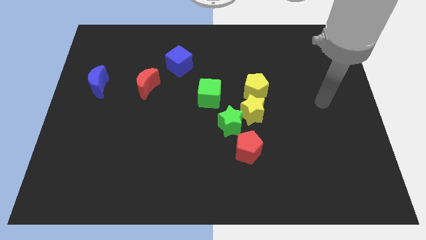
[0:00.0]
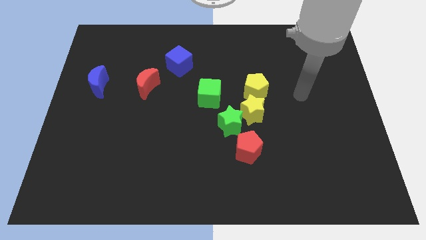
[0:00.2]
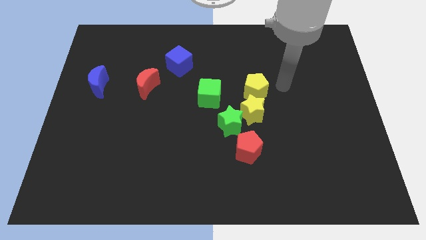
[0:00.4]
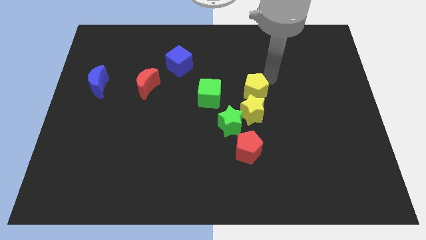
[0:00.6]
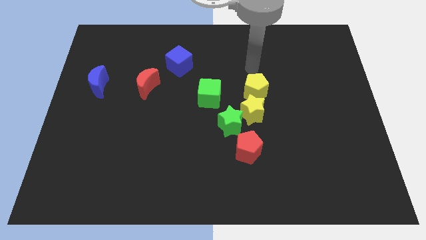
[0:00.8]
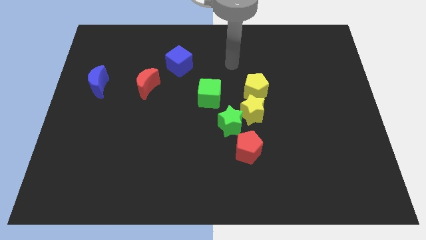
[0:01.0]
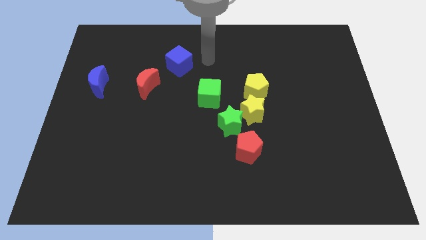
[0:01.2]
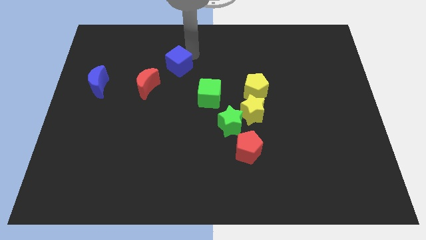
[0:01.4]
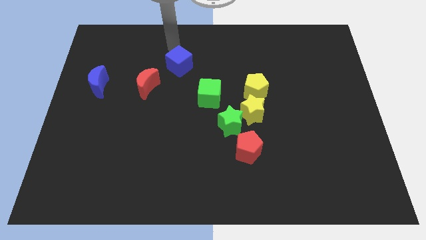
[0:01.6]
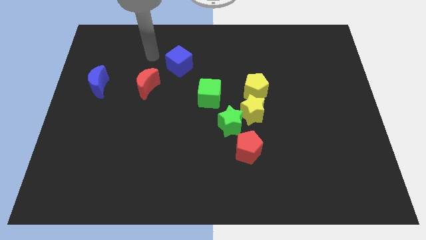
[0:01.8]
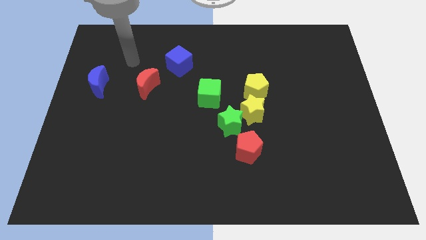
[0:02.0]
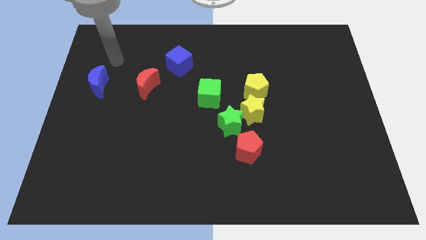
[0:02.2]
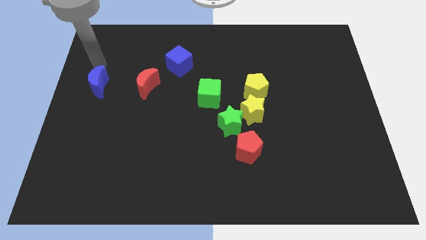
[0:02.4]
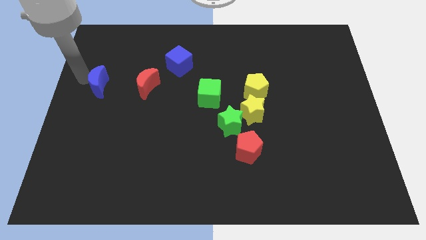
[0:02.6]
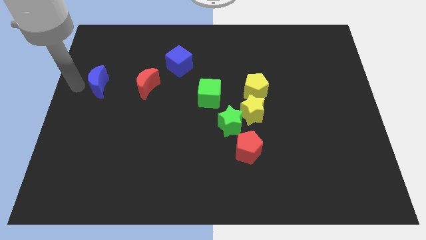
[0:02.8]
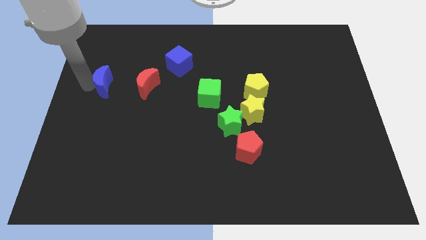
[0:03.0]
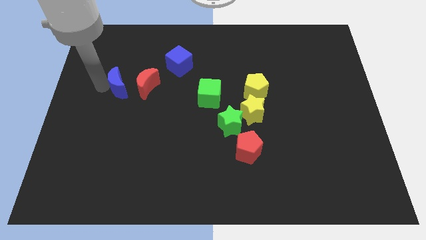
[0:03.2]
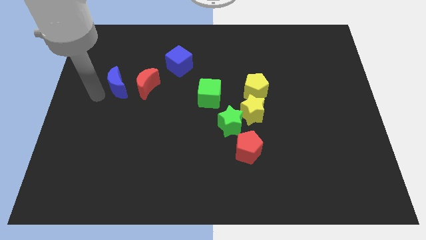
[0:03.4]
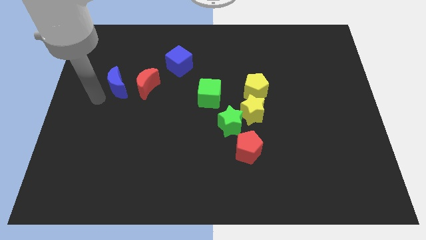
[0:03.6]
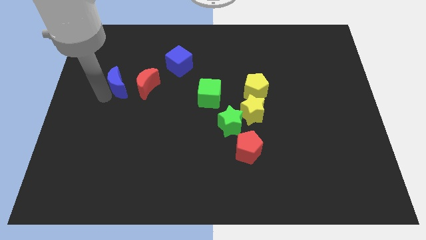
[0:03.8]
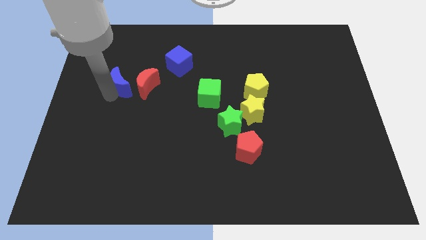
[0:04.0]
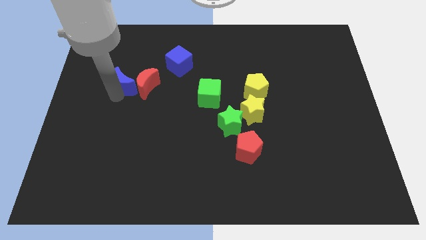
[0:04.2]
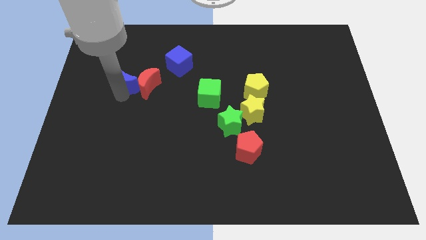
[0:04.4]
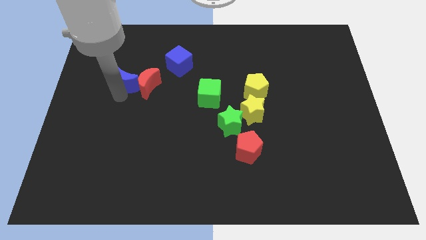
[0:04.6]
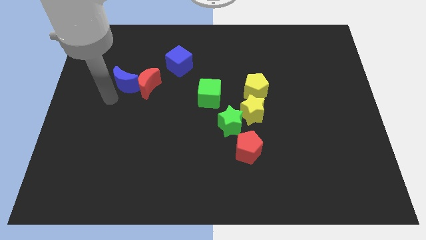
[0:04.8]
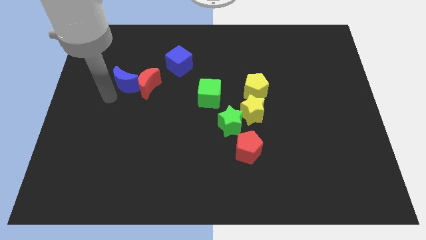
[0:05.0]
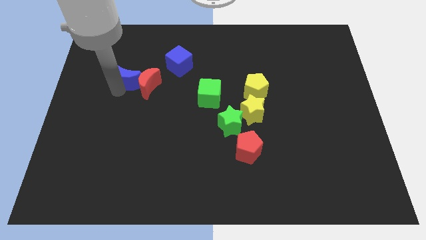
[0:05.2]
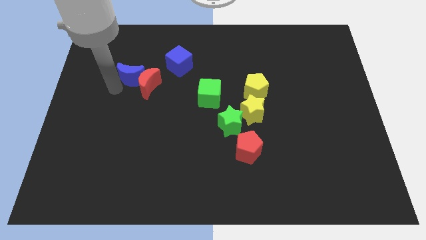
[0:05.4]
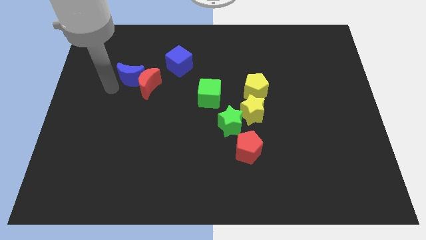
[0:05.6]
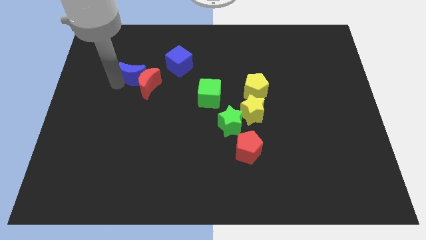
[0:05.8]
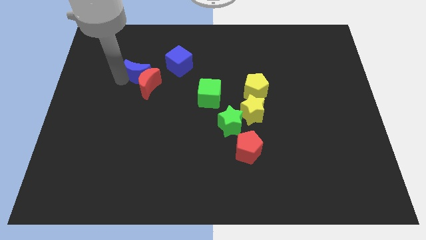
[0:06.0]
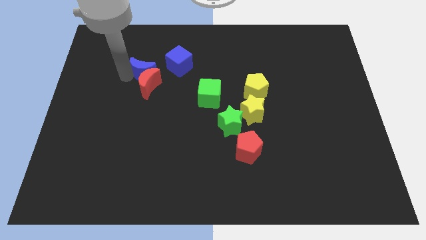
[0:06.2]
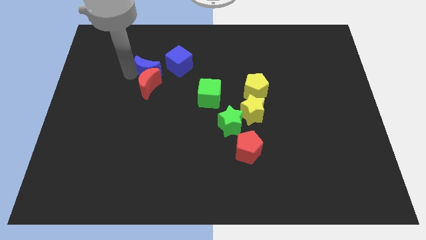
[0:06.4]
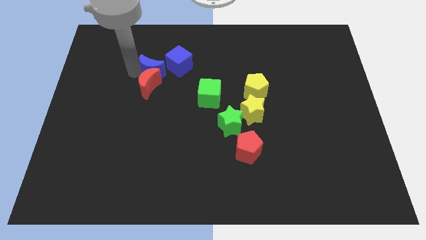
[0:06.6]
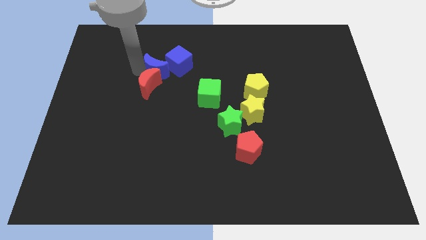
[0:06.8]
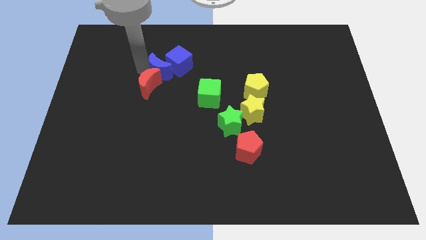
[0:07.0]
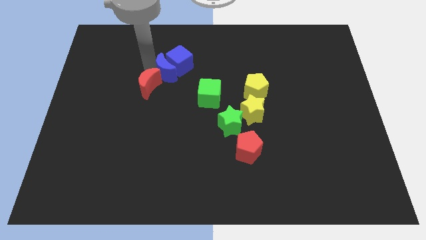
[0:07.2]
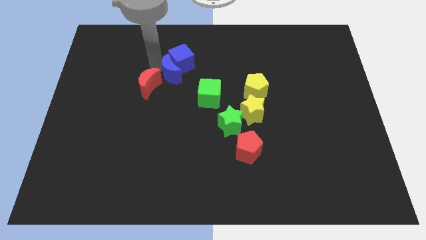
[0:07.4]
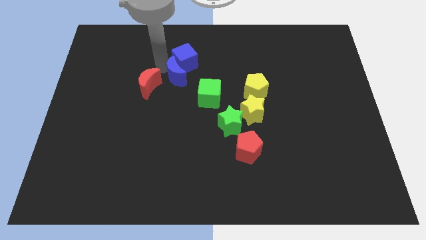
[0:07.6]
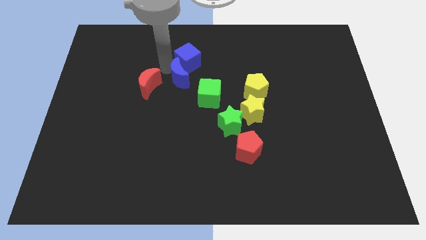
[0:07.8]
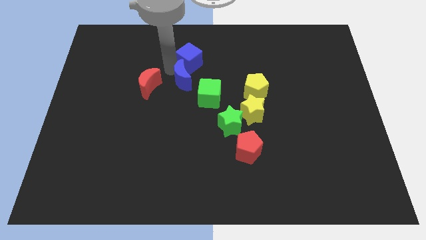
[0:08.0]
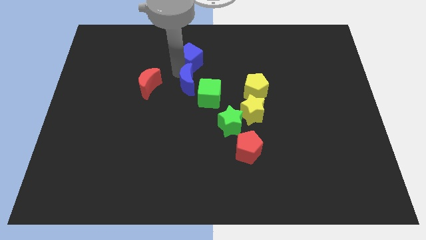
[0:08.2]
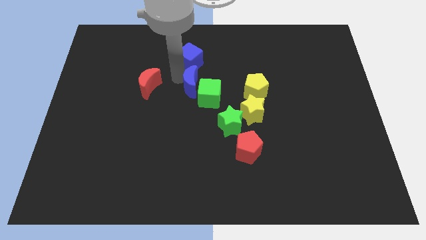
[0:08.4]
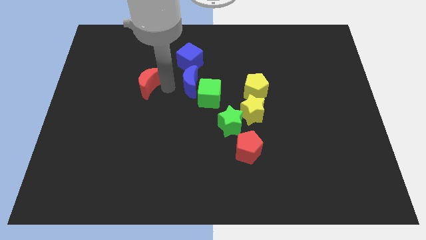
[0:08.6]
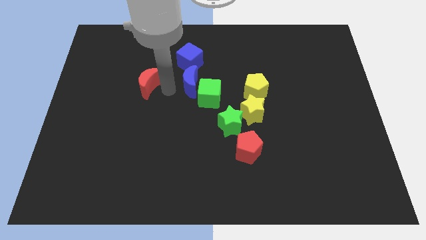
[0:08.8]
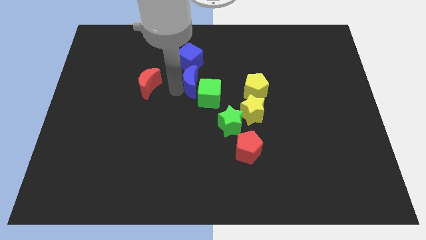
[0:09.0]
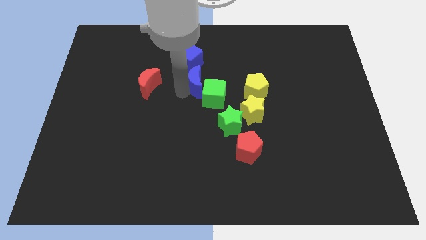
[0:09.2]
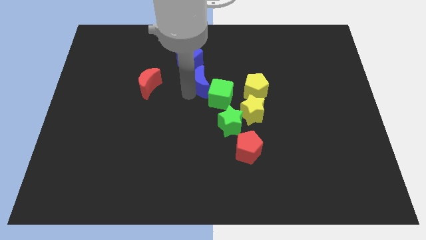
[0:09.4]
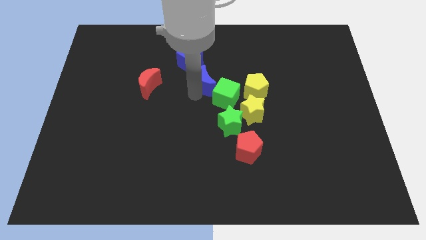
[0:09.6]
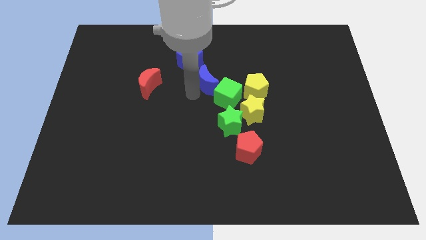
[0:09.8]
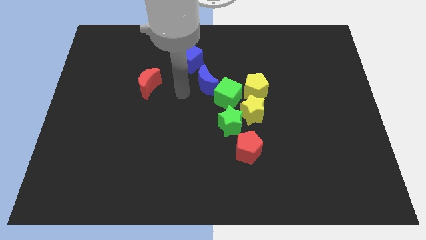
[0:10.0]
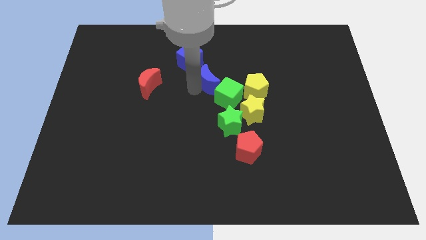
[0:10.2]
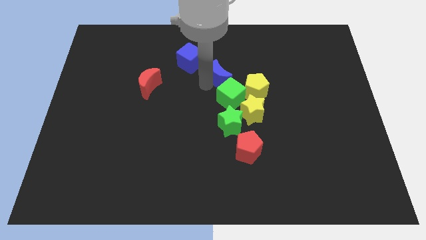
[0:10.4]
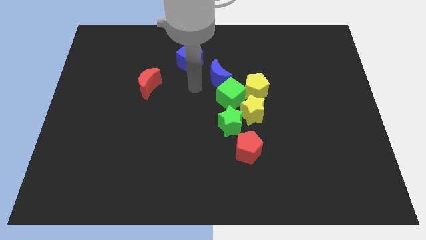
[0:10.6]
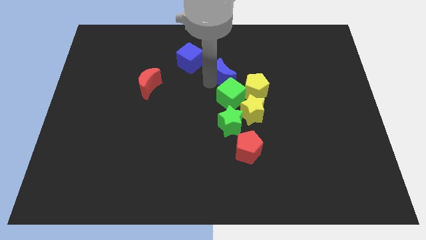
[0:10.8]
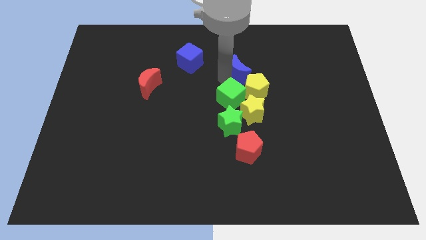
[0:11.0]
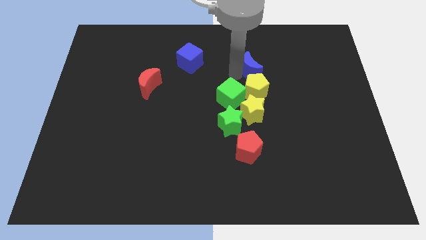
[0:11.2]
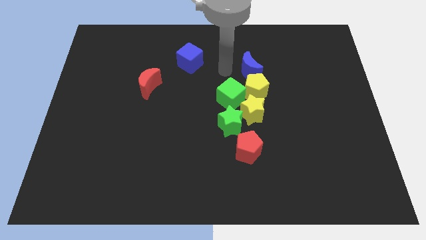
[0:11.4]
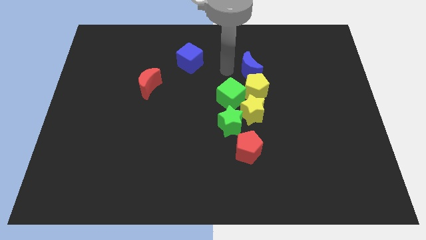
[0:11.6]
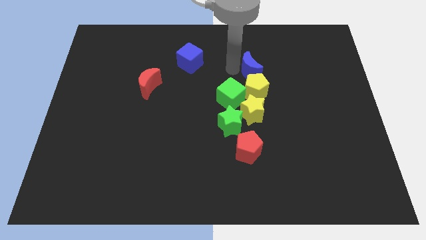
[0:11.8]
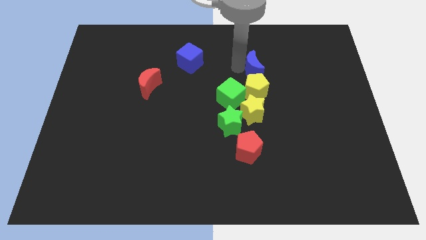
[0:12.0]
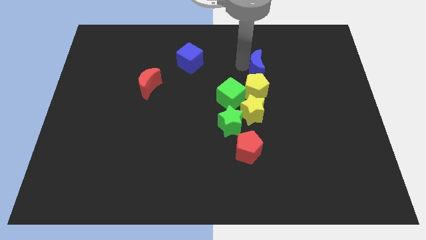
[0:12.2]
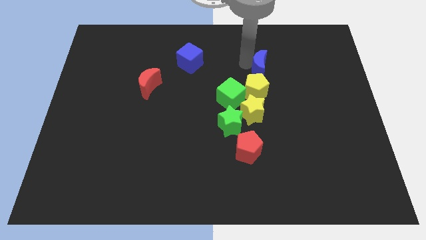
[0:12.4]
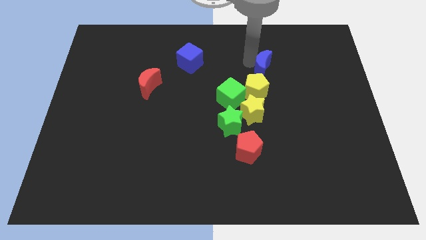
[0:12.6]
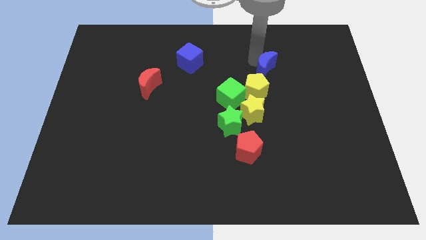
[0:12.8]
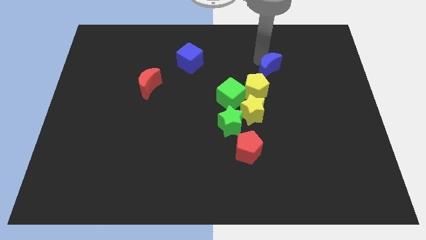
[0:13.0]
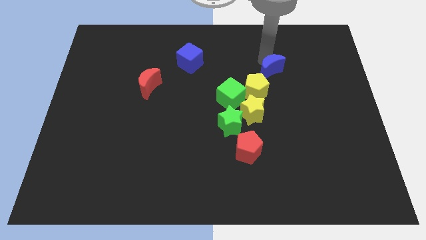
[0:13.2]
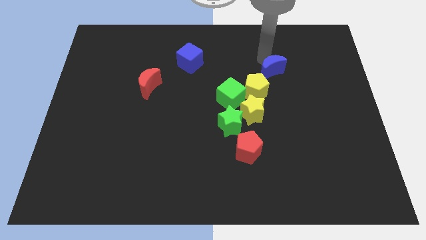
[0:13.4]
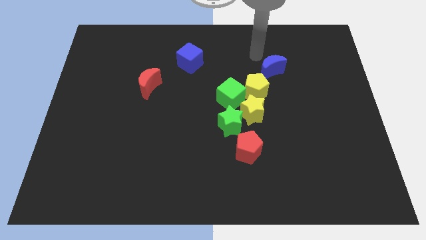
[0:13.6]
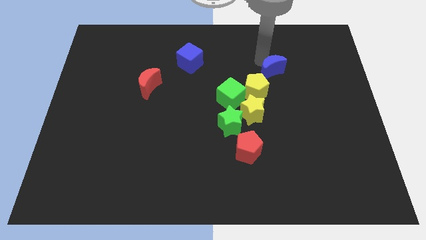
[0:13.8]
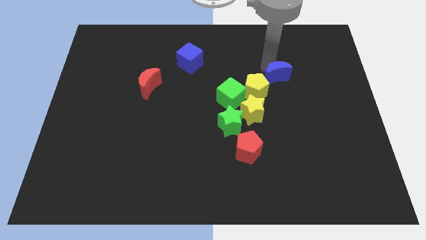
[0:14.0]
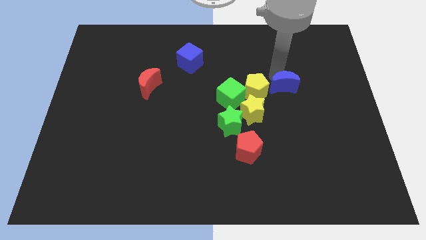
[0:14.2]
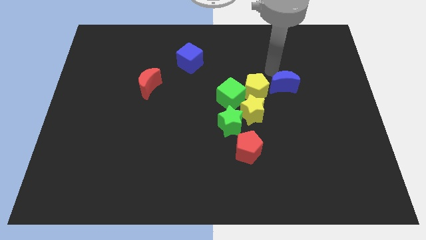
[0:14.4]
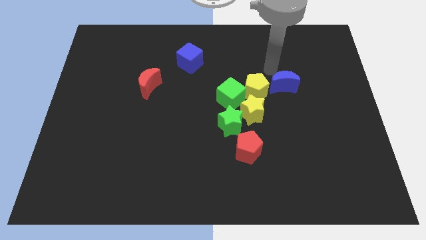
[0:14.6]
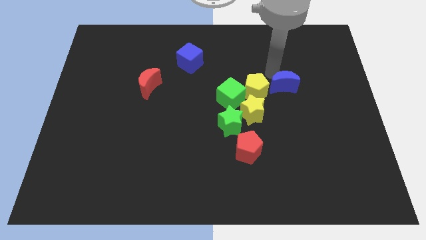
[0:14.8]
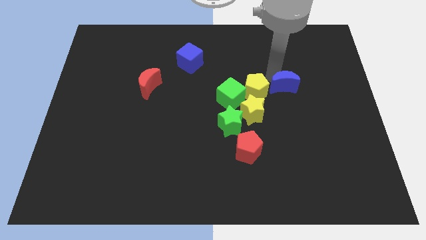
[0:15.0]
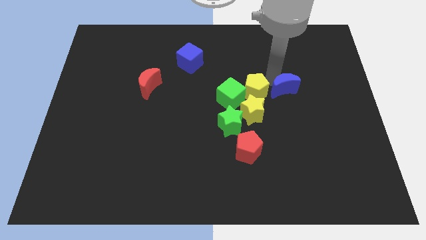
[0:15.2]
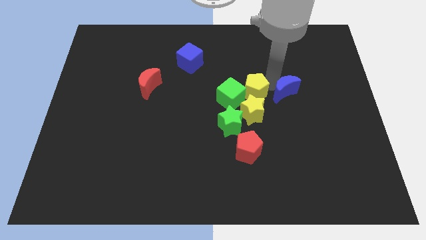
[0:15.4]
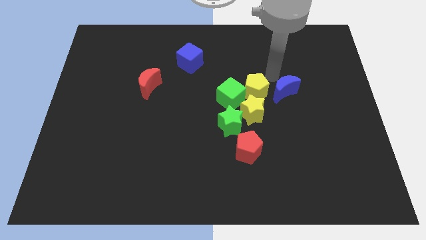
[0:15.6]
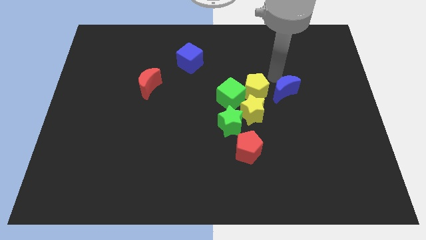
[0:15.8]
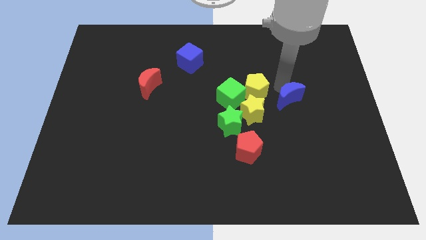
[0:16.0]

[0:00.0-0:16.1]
slide the blue moon right of the yellow star
